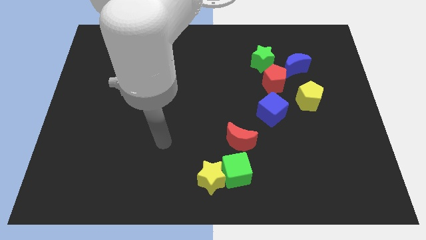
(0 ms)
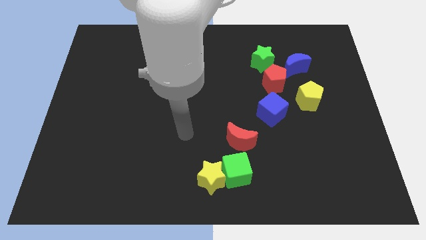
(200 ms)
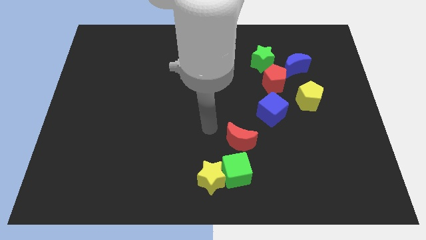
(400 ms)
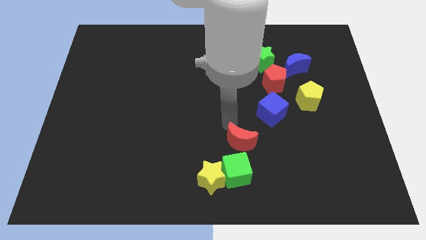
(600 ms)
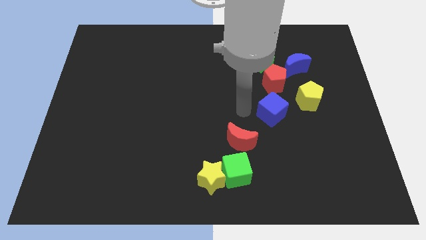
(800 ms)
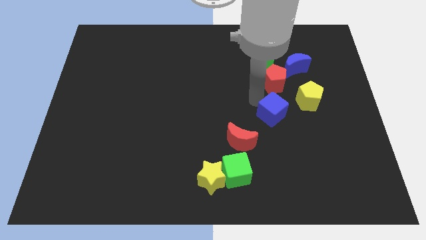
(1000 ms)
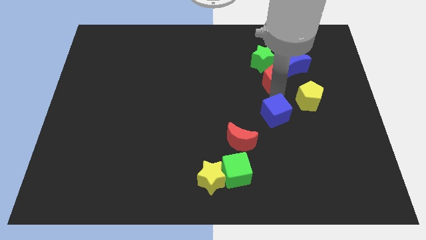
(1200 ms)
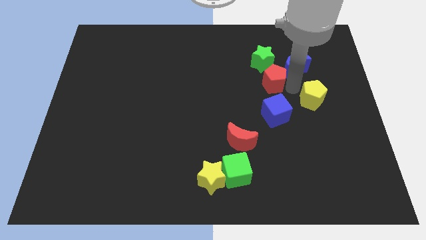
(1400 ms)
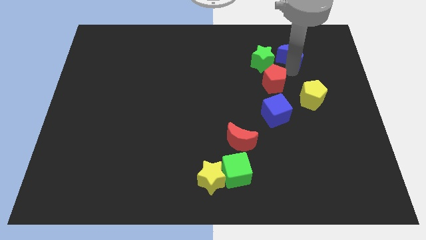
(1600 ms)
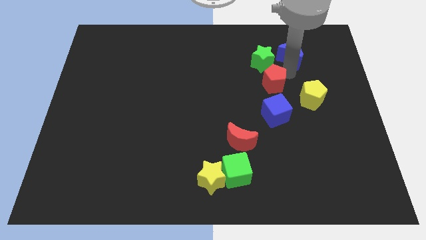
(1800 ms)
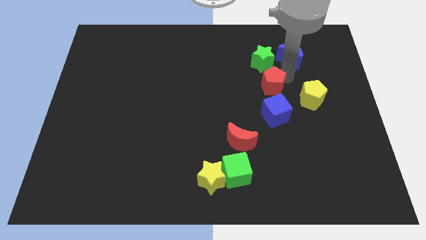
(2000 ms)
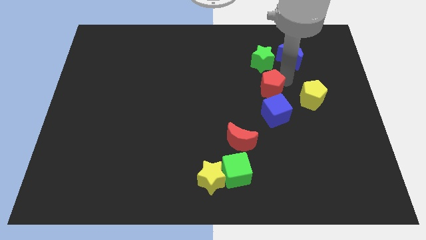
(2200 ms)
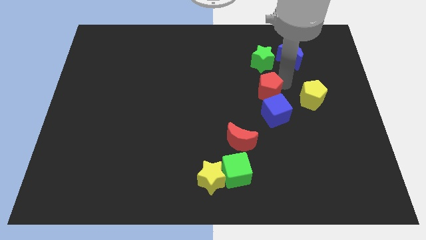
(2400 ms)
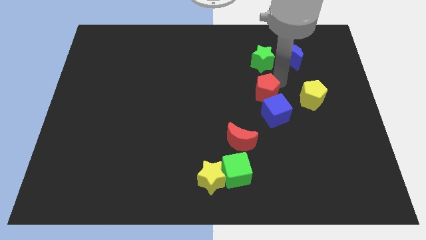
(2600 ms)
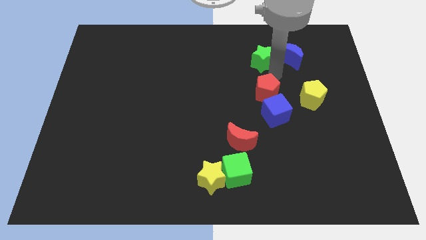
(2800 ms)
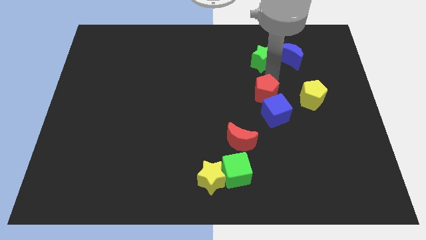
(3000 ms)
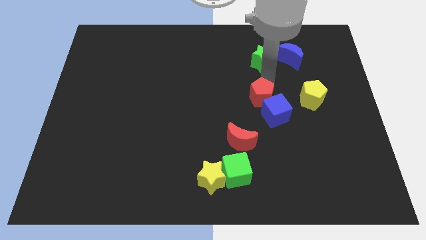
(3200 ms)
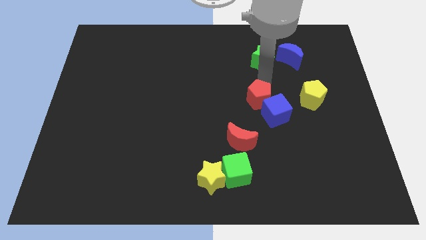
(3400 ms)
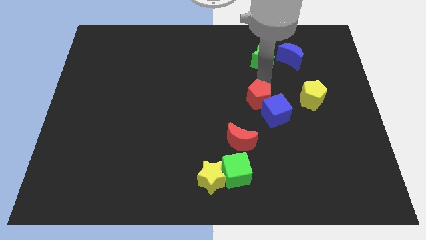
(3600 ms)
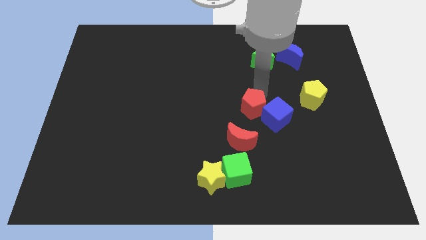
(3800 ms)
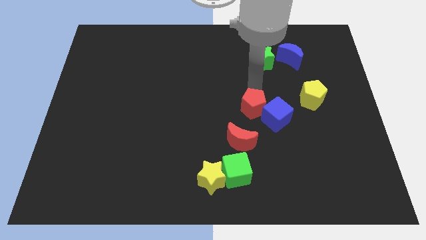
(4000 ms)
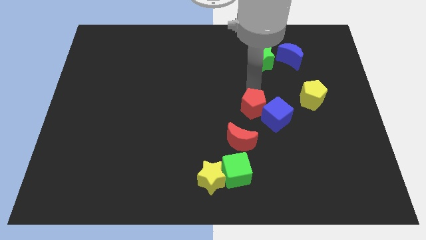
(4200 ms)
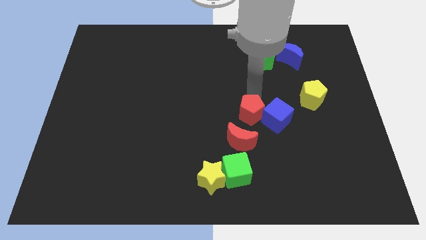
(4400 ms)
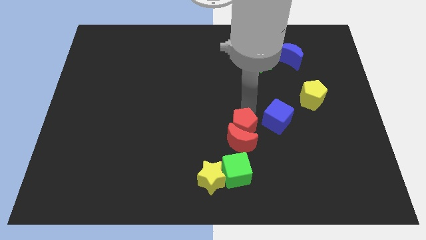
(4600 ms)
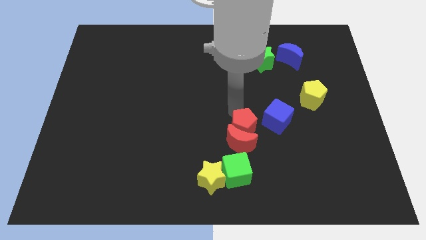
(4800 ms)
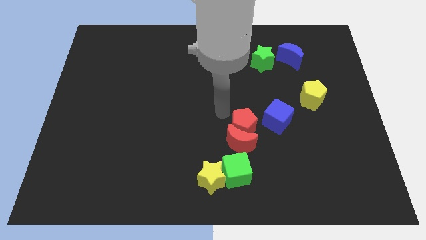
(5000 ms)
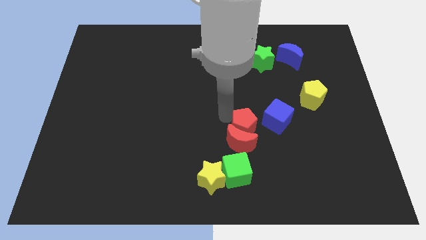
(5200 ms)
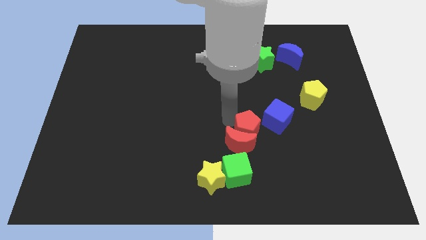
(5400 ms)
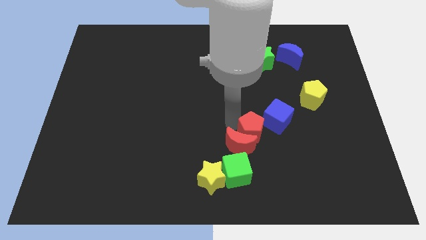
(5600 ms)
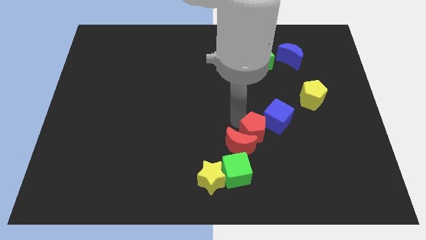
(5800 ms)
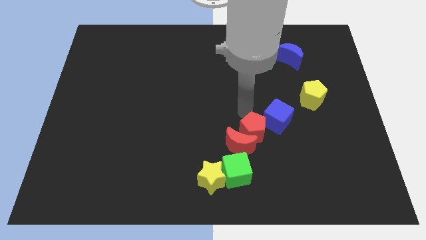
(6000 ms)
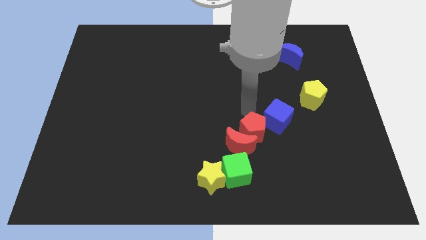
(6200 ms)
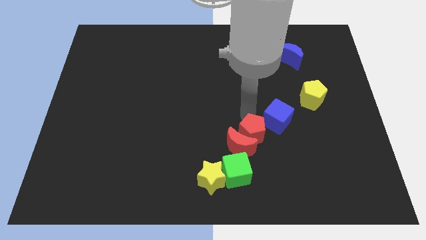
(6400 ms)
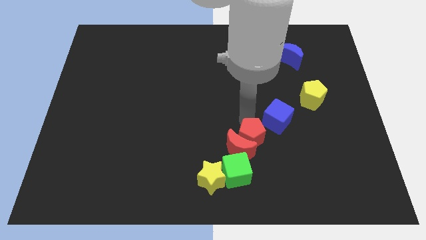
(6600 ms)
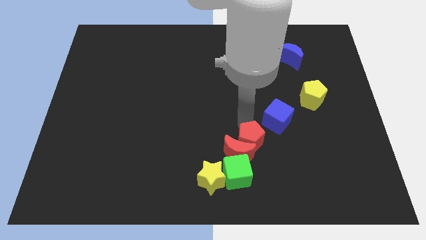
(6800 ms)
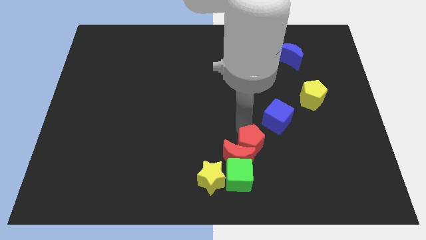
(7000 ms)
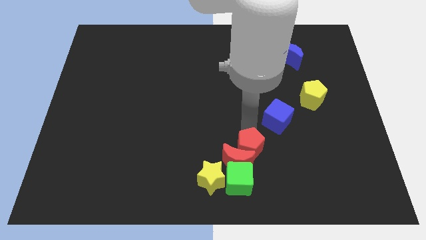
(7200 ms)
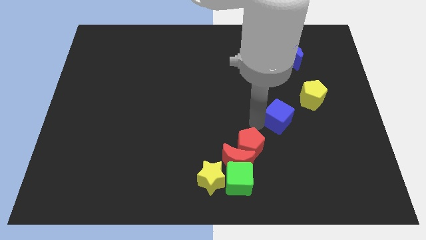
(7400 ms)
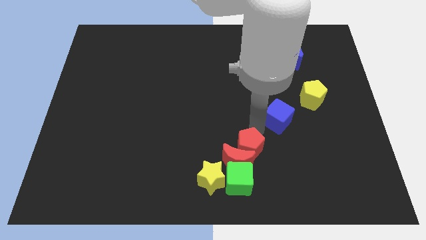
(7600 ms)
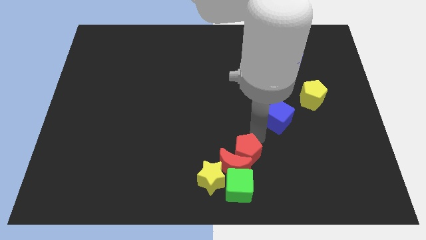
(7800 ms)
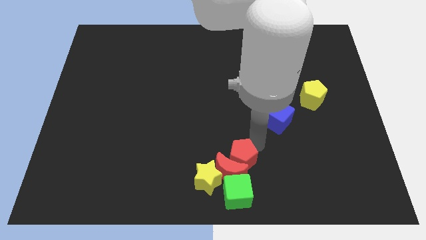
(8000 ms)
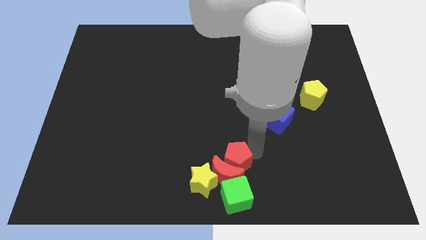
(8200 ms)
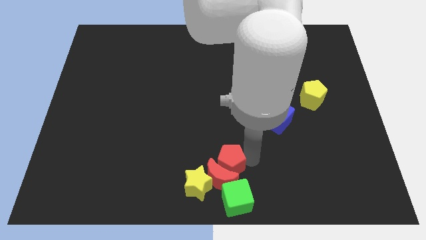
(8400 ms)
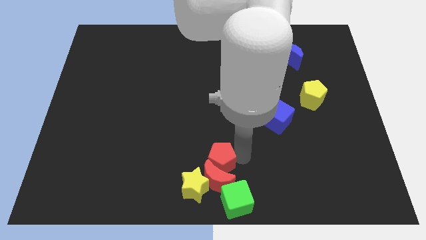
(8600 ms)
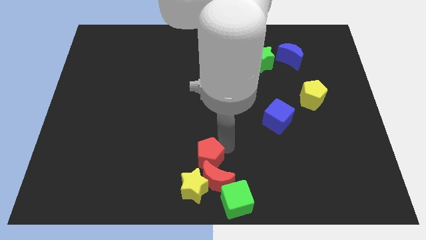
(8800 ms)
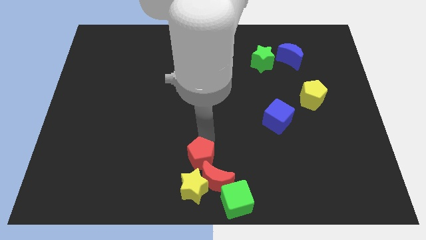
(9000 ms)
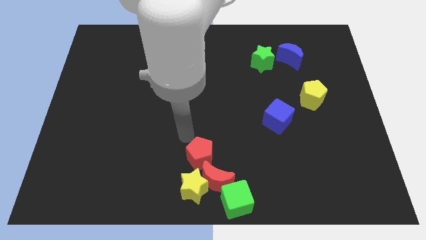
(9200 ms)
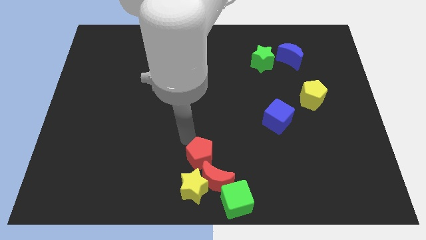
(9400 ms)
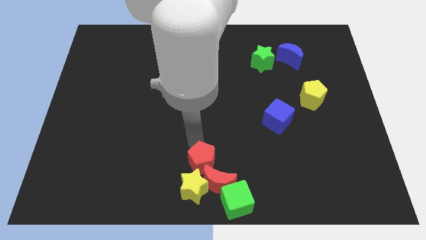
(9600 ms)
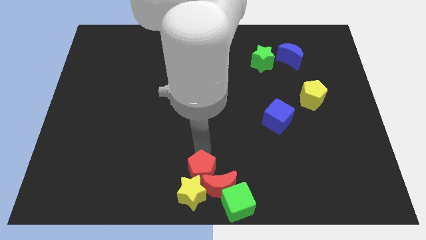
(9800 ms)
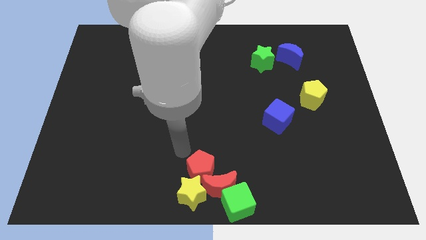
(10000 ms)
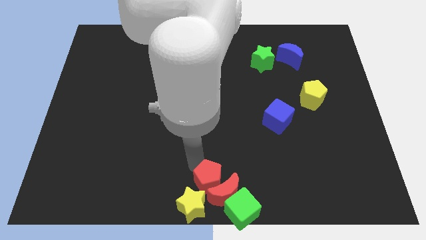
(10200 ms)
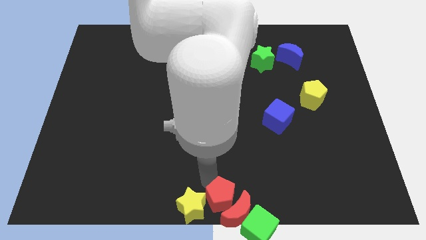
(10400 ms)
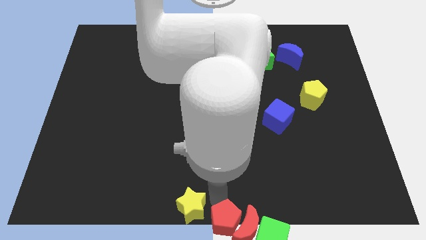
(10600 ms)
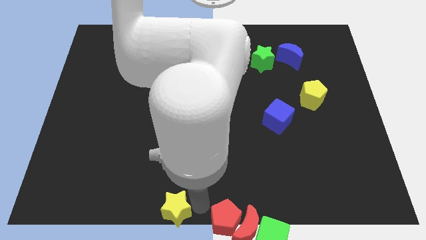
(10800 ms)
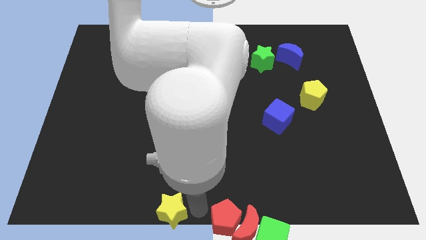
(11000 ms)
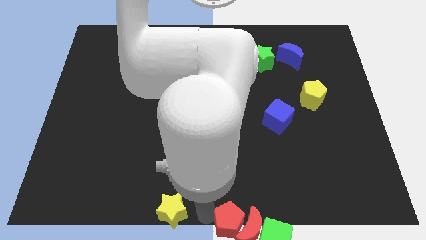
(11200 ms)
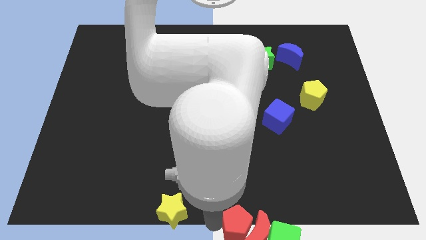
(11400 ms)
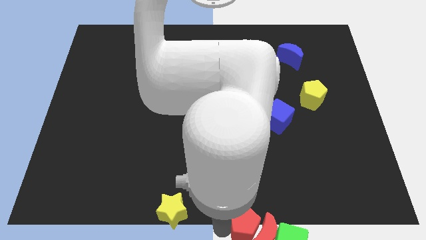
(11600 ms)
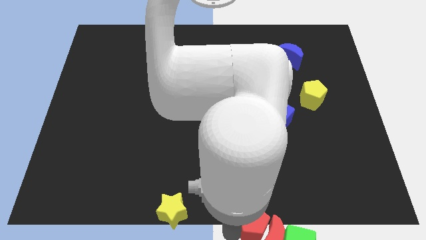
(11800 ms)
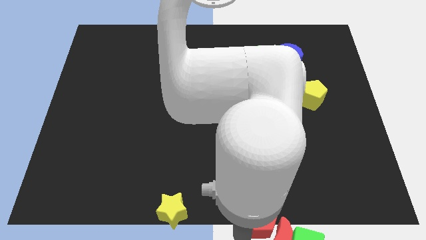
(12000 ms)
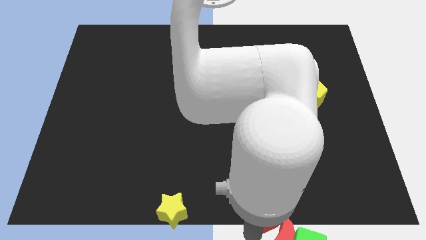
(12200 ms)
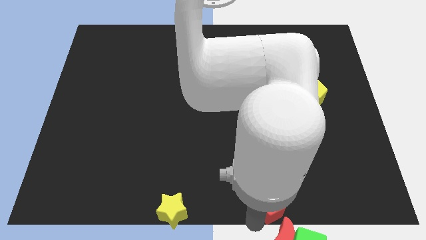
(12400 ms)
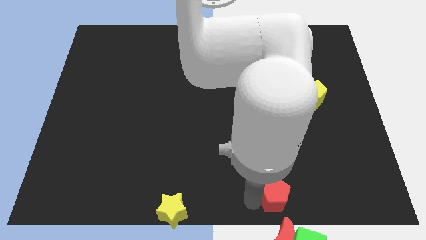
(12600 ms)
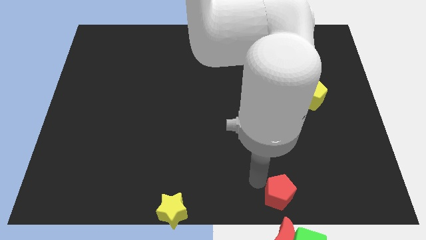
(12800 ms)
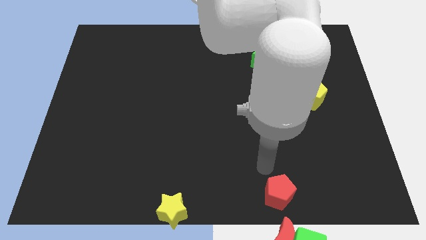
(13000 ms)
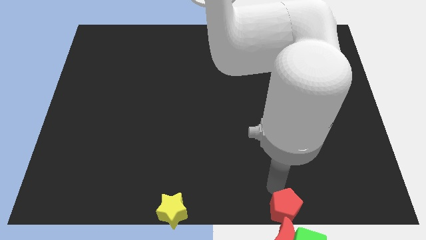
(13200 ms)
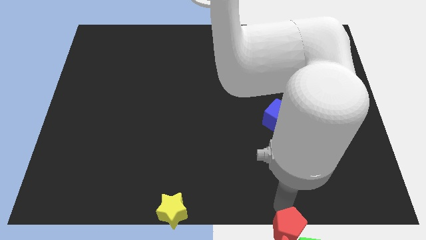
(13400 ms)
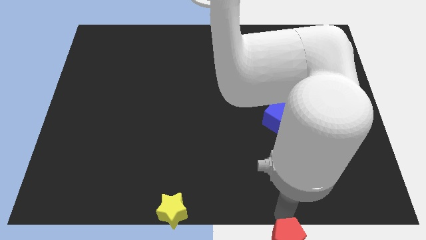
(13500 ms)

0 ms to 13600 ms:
put the red pentagon next to the green cube
